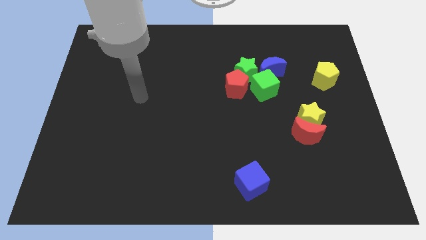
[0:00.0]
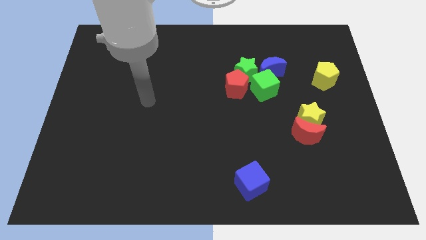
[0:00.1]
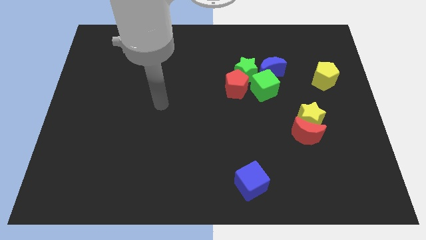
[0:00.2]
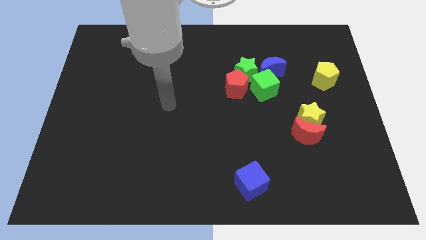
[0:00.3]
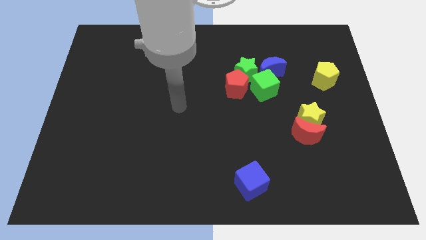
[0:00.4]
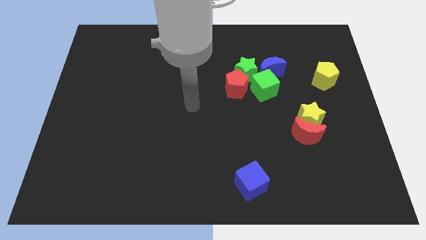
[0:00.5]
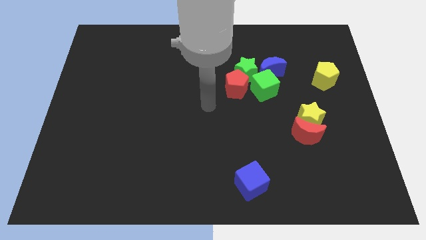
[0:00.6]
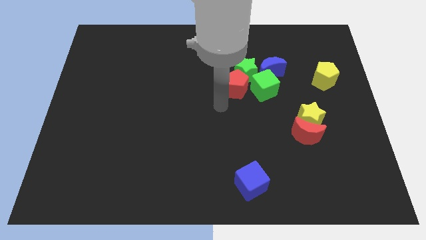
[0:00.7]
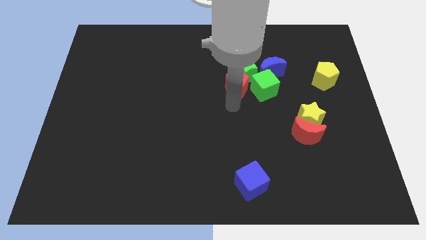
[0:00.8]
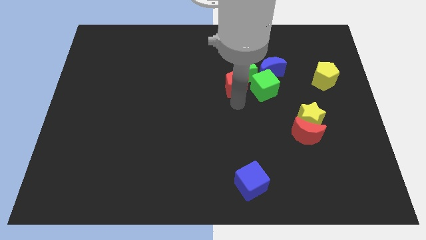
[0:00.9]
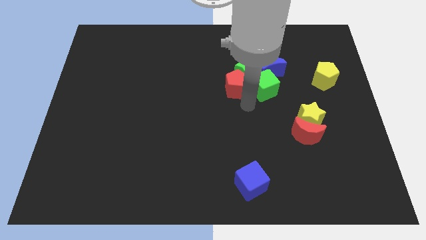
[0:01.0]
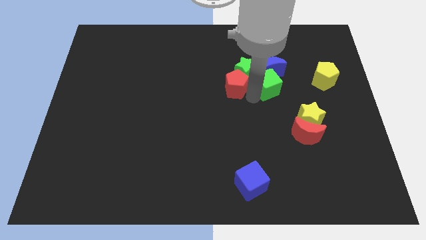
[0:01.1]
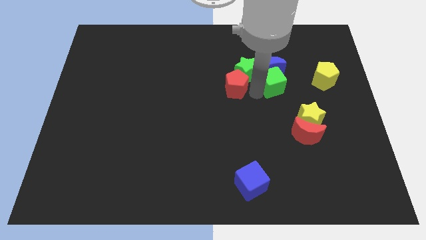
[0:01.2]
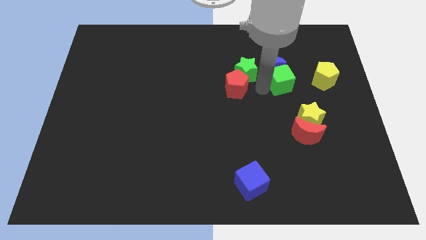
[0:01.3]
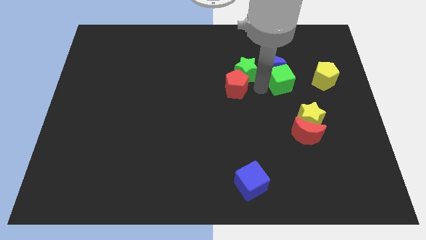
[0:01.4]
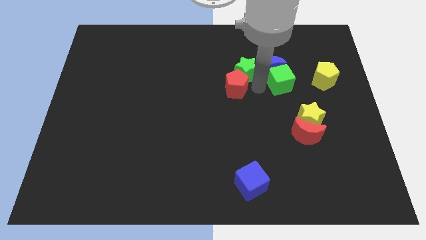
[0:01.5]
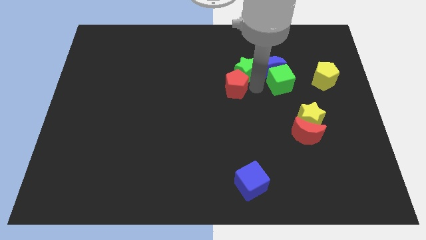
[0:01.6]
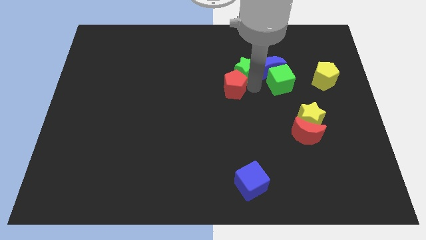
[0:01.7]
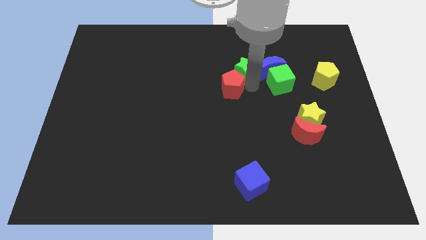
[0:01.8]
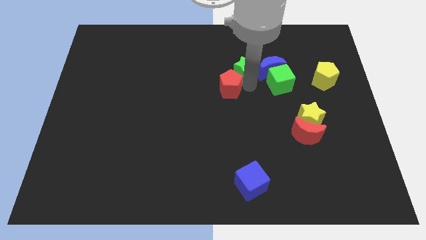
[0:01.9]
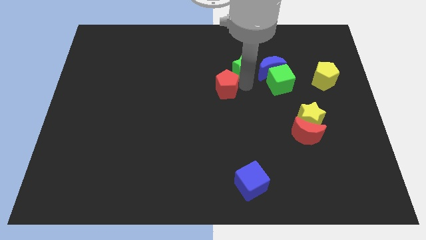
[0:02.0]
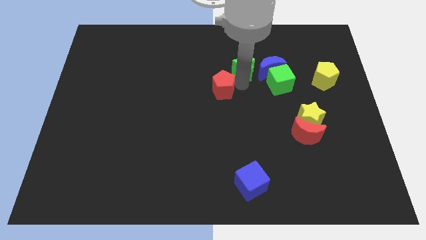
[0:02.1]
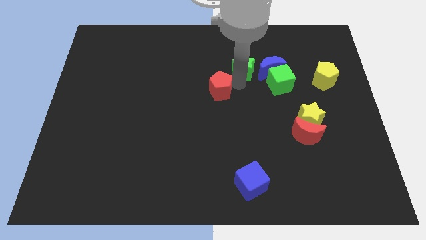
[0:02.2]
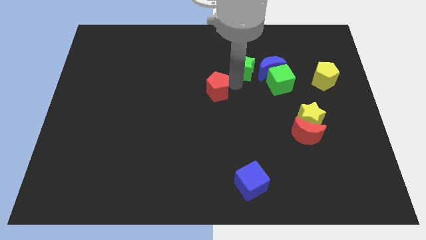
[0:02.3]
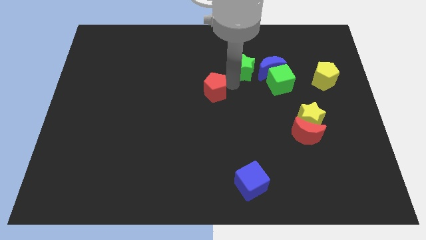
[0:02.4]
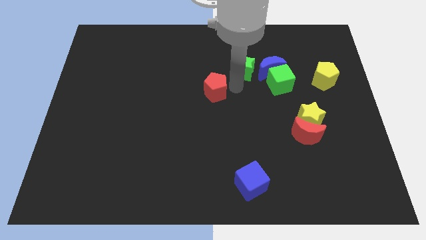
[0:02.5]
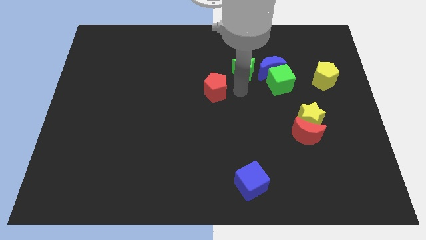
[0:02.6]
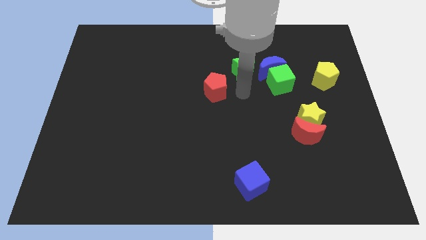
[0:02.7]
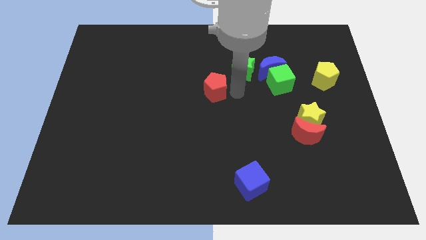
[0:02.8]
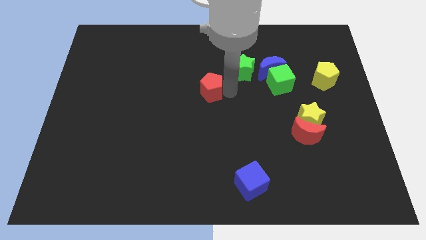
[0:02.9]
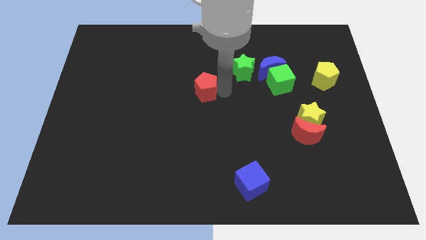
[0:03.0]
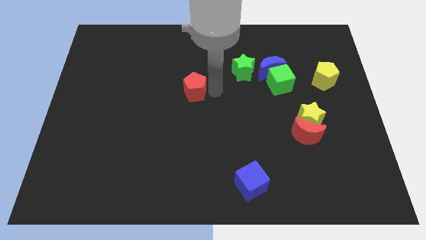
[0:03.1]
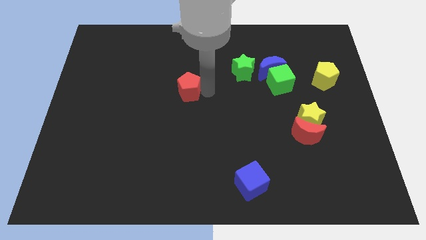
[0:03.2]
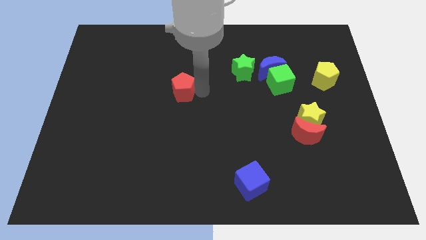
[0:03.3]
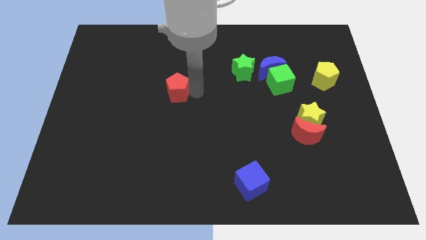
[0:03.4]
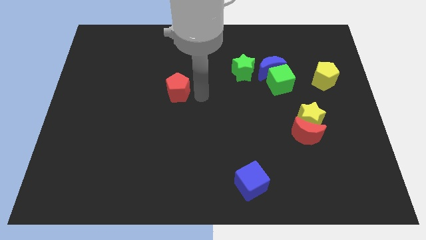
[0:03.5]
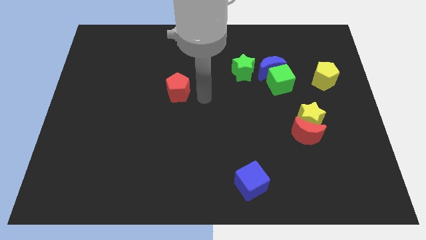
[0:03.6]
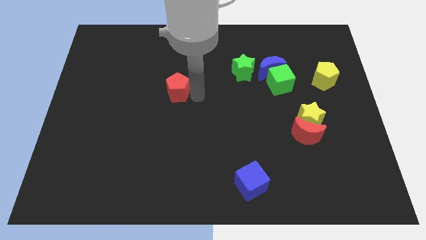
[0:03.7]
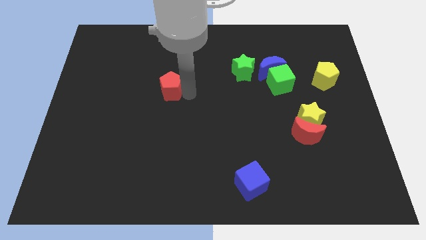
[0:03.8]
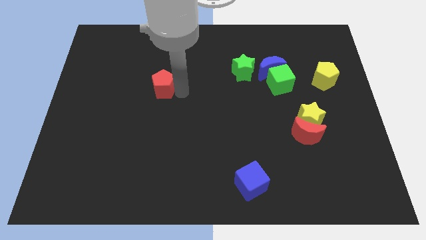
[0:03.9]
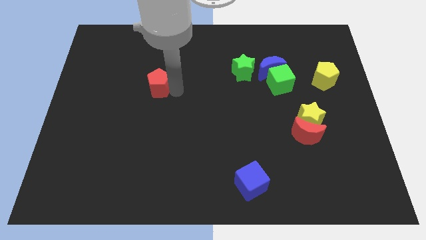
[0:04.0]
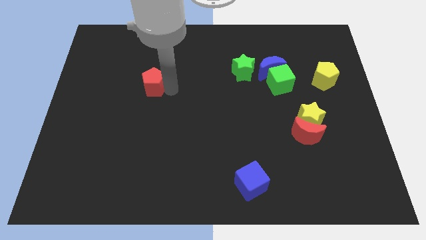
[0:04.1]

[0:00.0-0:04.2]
push the red pentagon left

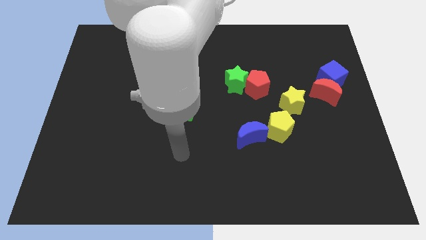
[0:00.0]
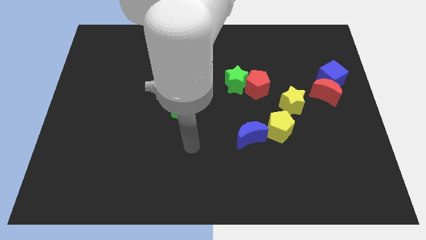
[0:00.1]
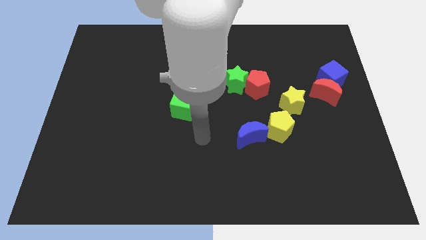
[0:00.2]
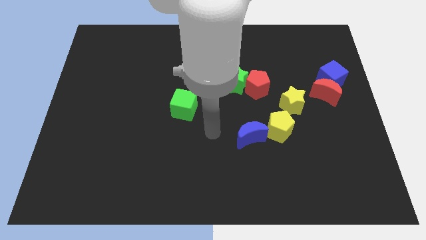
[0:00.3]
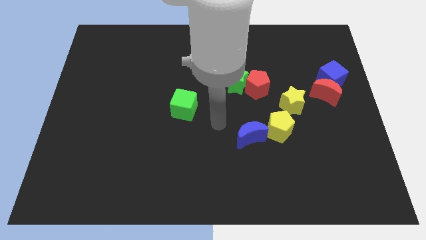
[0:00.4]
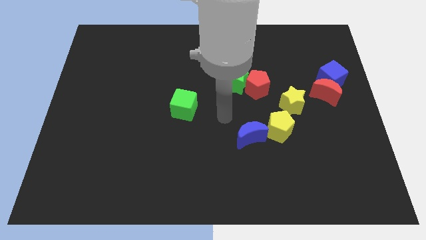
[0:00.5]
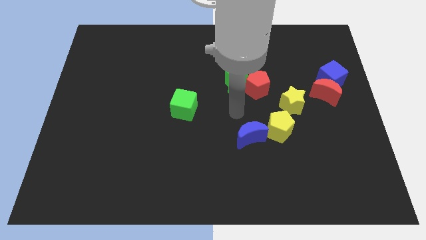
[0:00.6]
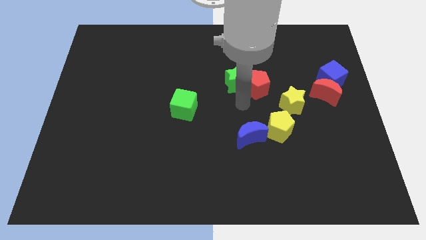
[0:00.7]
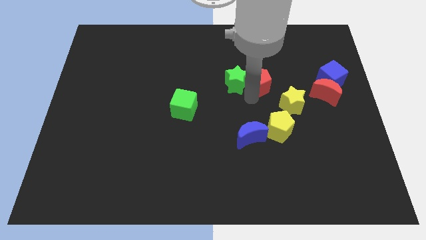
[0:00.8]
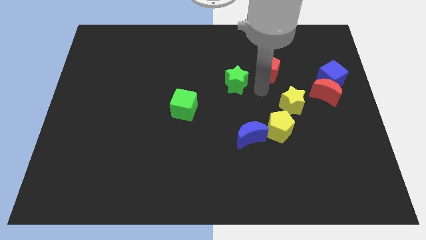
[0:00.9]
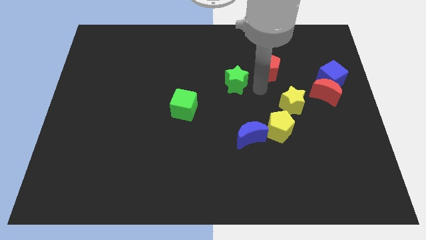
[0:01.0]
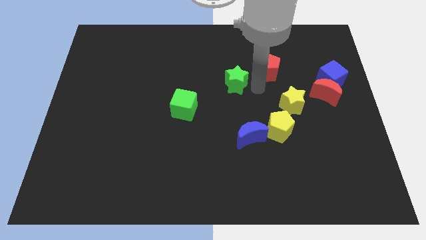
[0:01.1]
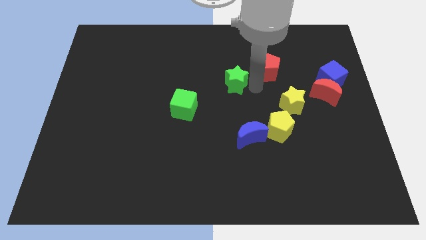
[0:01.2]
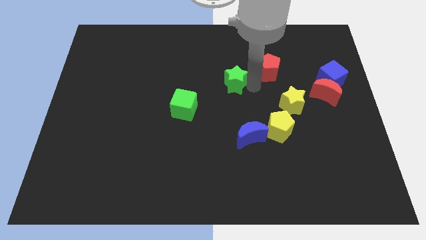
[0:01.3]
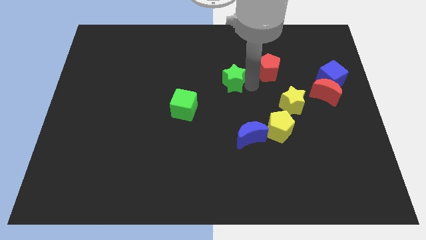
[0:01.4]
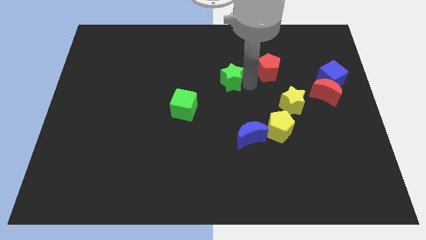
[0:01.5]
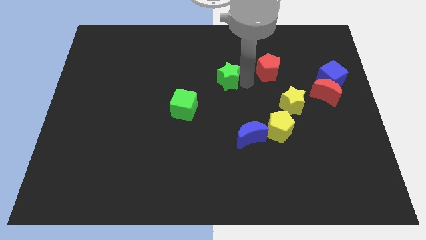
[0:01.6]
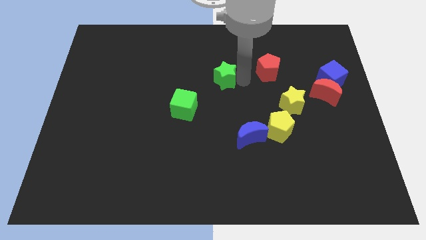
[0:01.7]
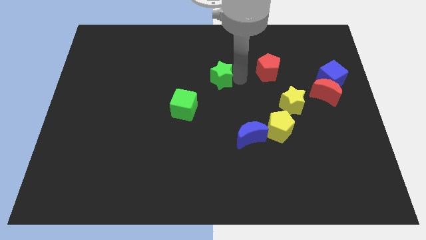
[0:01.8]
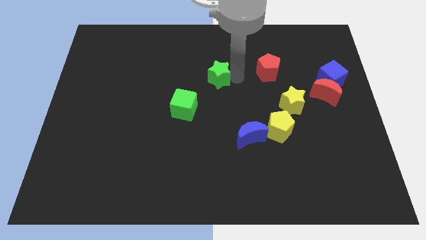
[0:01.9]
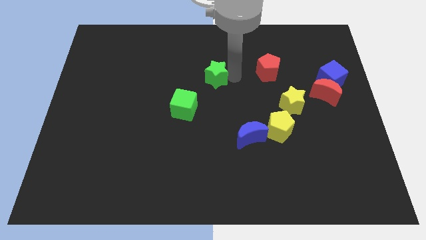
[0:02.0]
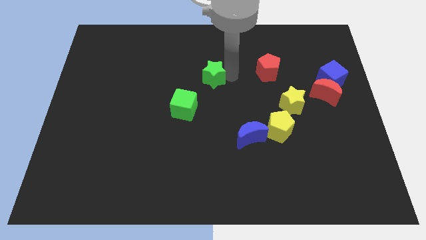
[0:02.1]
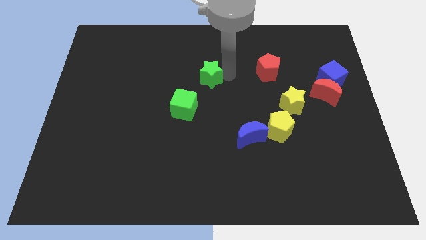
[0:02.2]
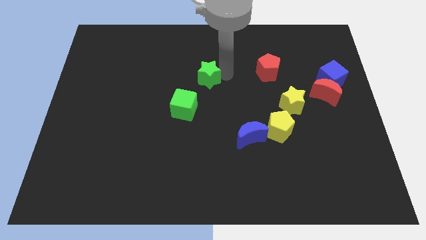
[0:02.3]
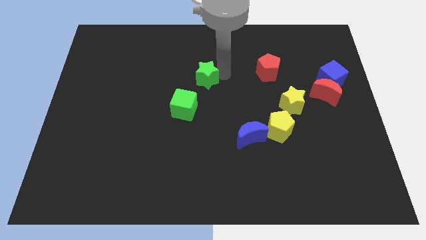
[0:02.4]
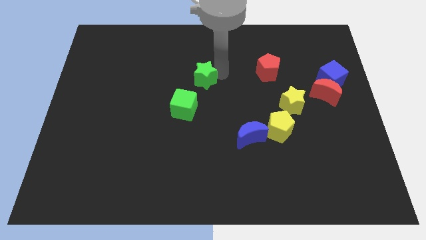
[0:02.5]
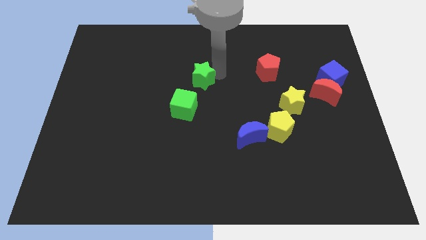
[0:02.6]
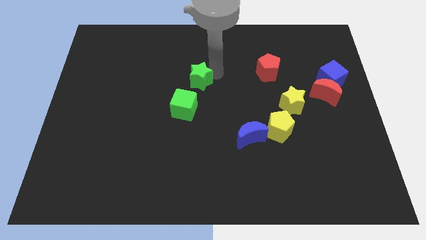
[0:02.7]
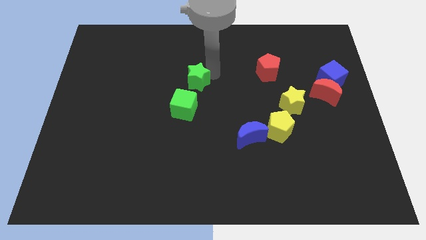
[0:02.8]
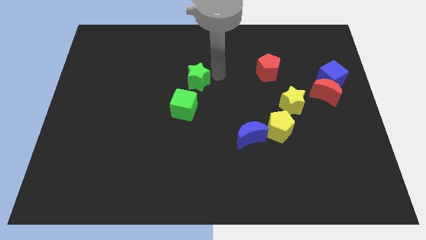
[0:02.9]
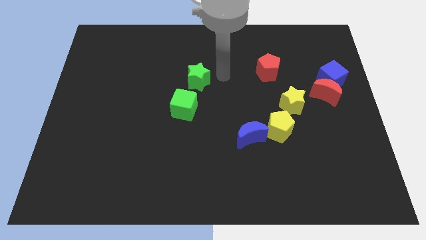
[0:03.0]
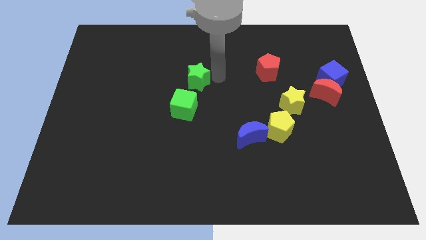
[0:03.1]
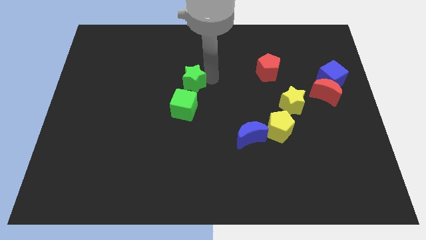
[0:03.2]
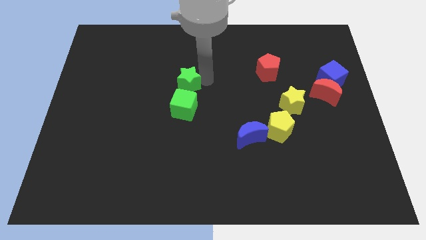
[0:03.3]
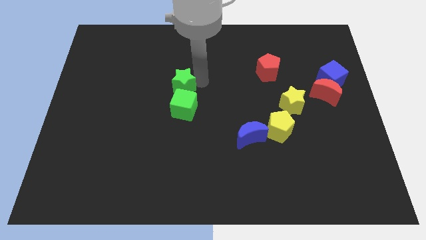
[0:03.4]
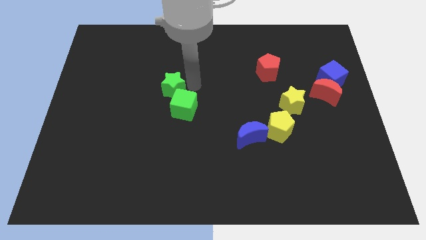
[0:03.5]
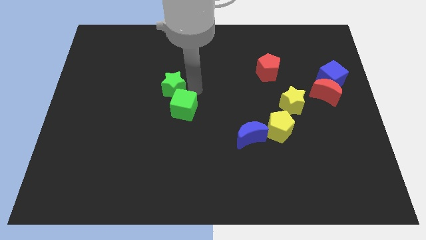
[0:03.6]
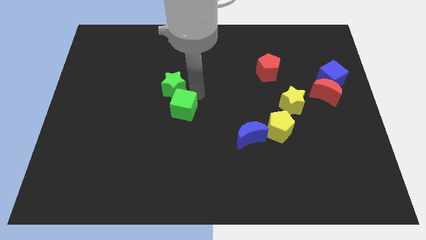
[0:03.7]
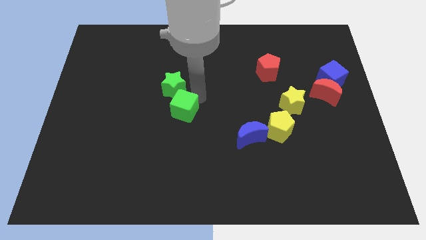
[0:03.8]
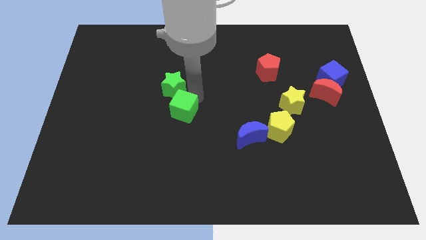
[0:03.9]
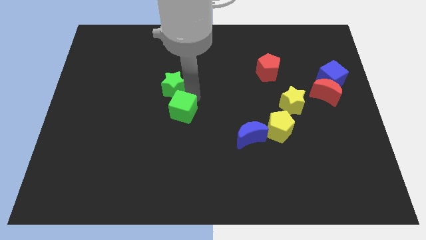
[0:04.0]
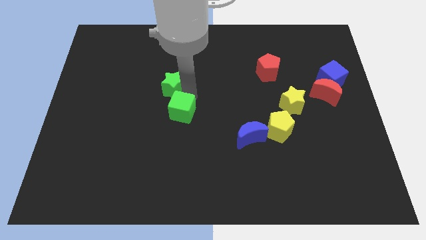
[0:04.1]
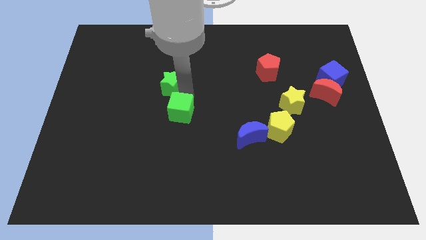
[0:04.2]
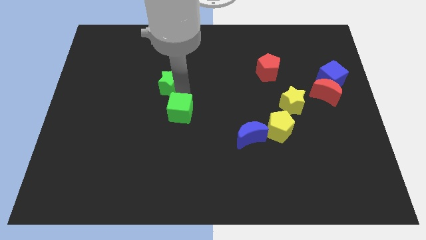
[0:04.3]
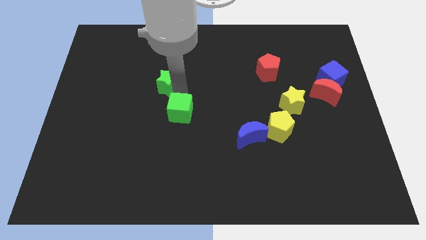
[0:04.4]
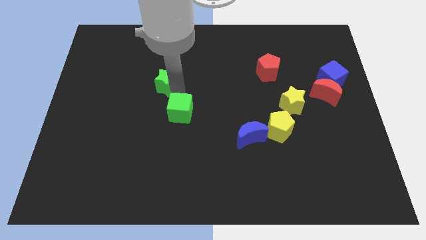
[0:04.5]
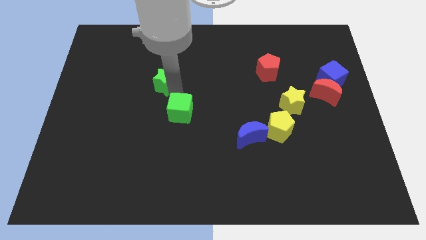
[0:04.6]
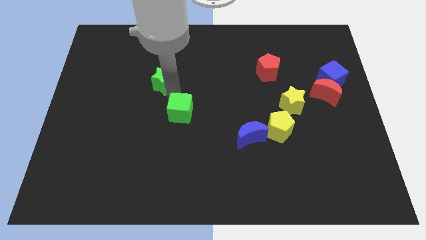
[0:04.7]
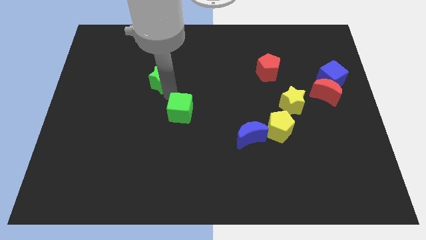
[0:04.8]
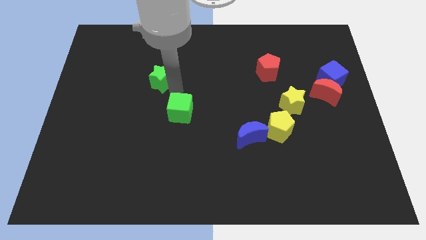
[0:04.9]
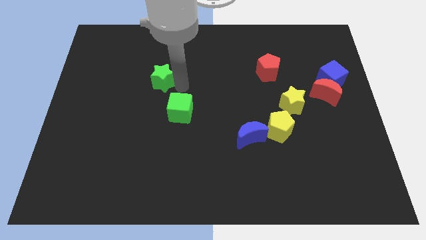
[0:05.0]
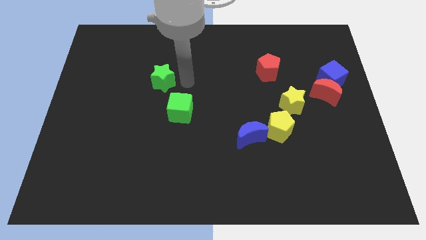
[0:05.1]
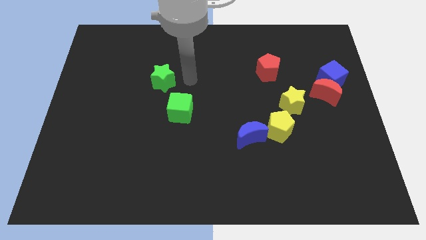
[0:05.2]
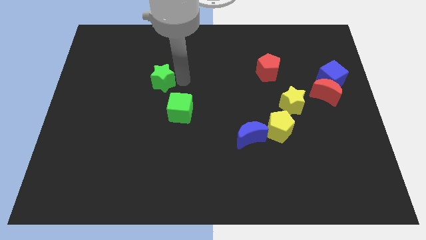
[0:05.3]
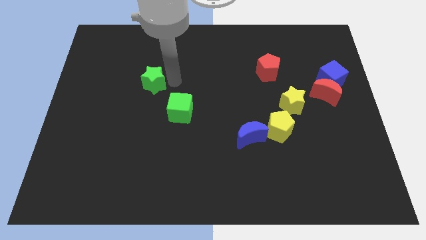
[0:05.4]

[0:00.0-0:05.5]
move the green star left
